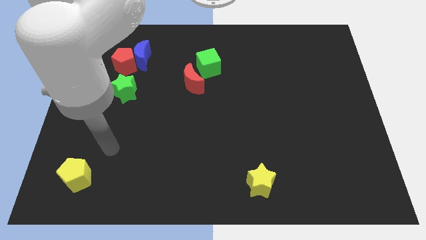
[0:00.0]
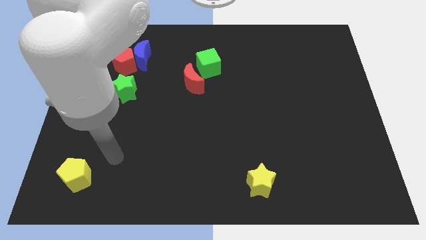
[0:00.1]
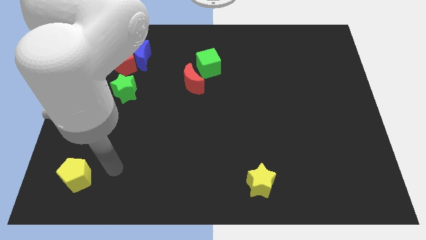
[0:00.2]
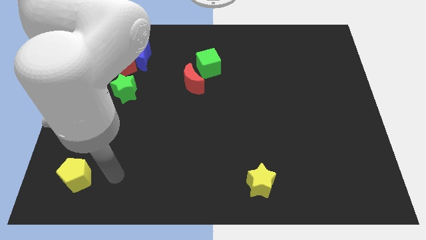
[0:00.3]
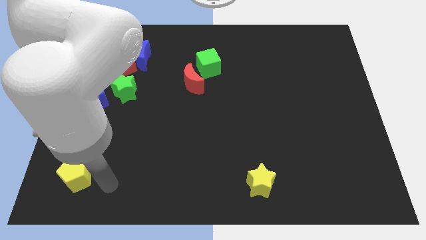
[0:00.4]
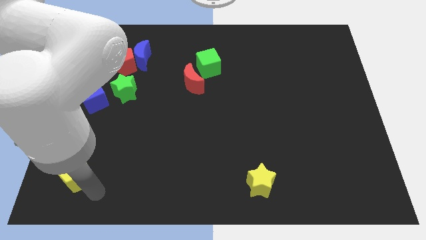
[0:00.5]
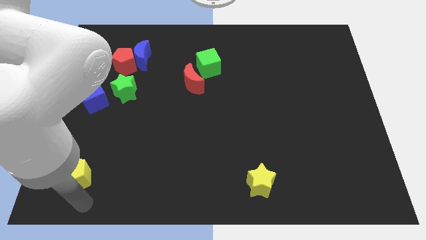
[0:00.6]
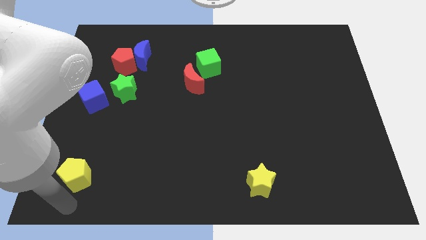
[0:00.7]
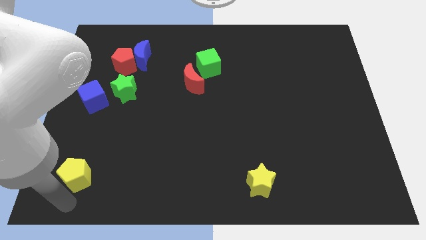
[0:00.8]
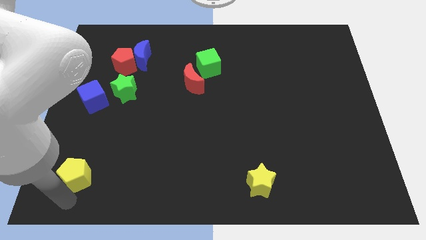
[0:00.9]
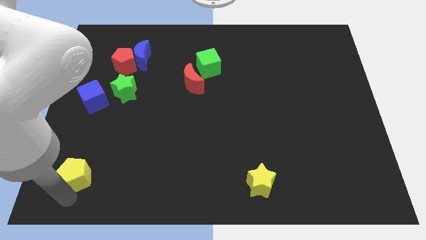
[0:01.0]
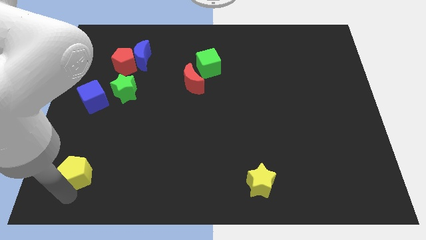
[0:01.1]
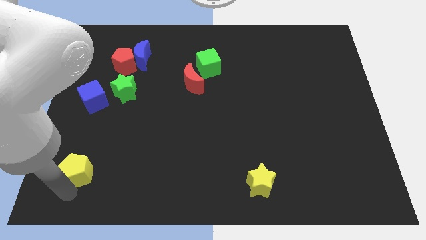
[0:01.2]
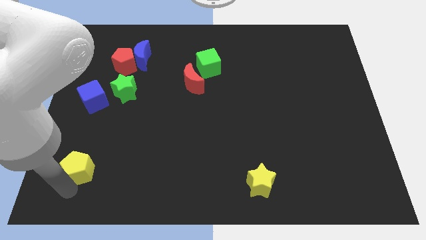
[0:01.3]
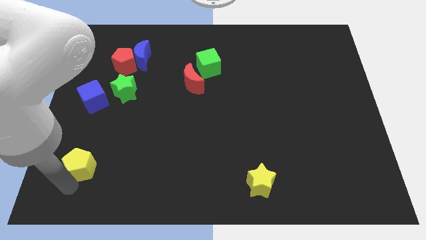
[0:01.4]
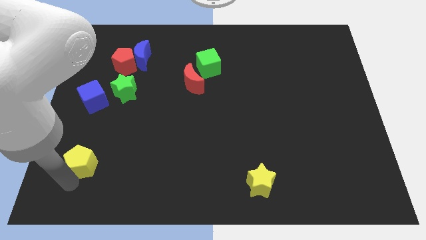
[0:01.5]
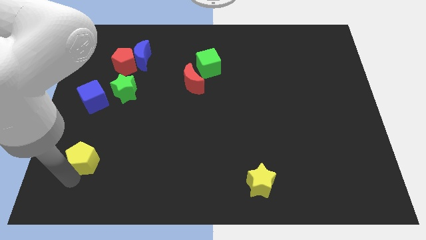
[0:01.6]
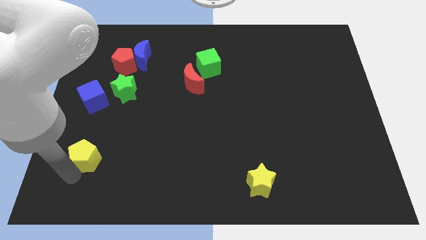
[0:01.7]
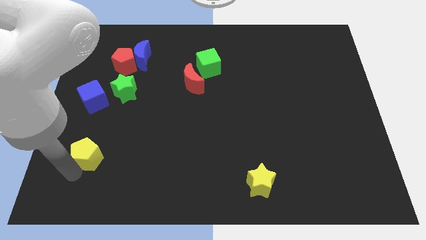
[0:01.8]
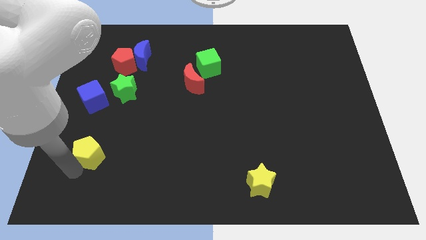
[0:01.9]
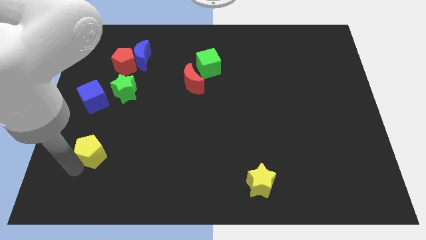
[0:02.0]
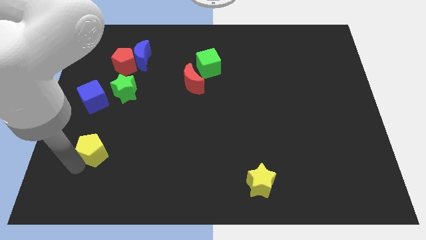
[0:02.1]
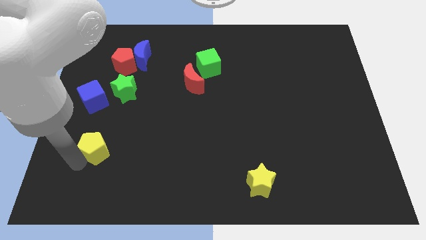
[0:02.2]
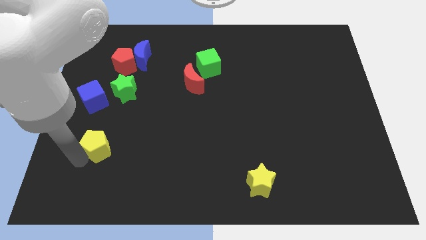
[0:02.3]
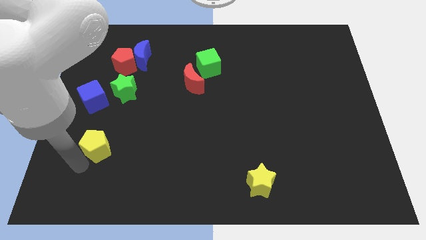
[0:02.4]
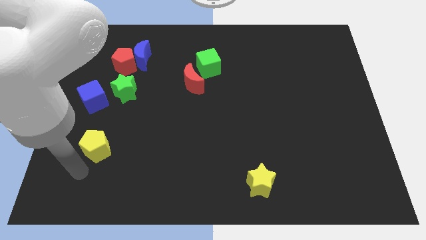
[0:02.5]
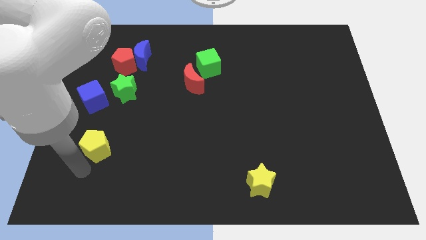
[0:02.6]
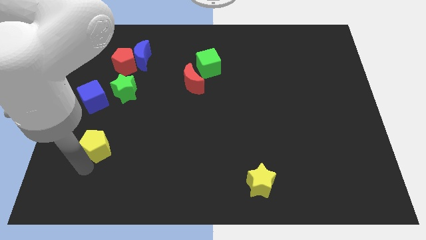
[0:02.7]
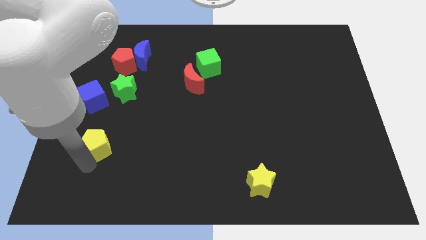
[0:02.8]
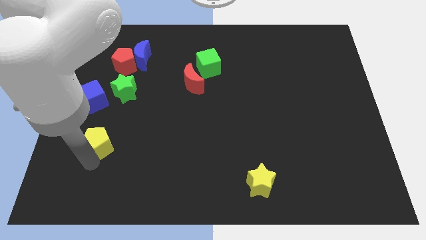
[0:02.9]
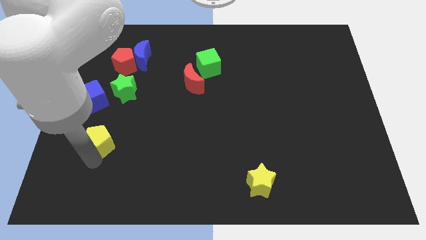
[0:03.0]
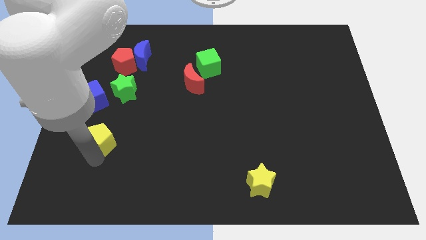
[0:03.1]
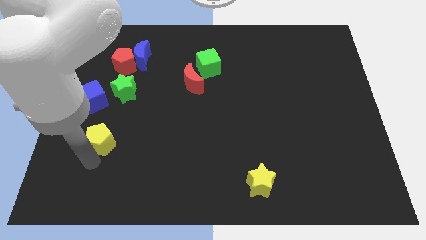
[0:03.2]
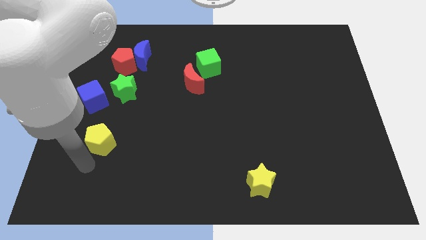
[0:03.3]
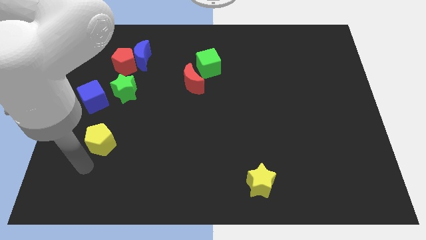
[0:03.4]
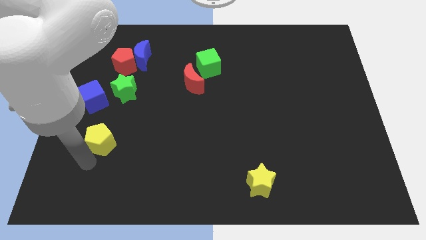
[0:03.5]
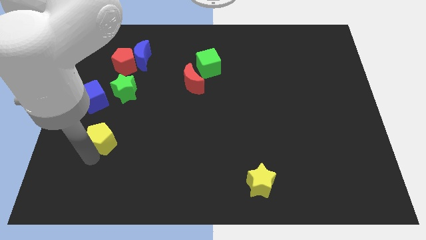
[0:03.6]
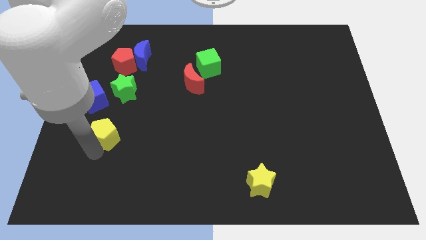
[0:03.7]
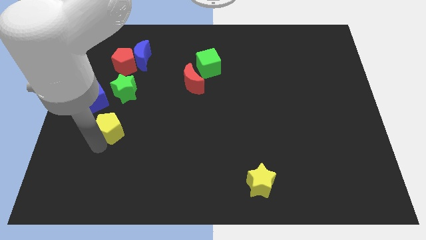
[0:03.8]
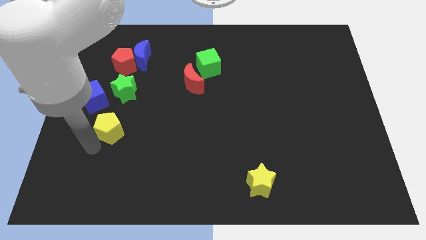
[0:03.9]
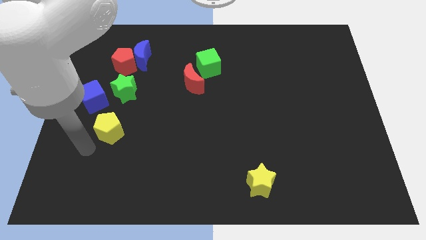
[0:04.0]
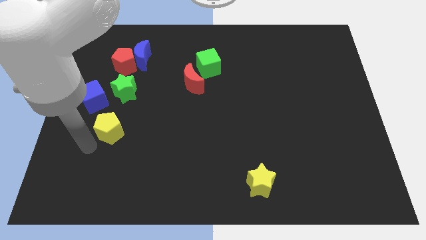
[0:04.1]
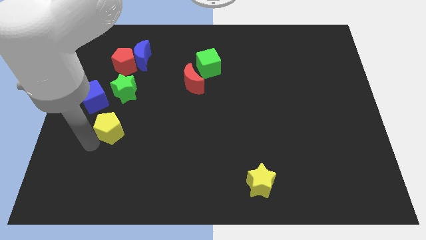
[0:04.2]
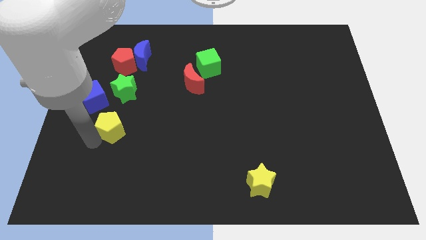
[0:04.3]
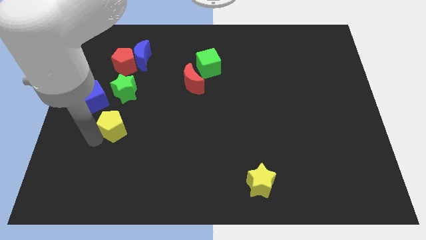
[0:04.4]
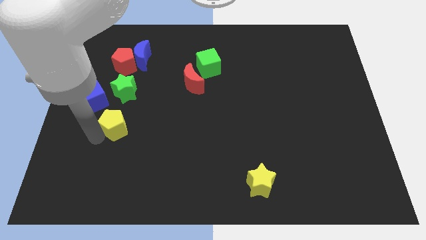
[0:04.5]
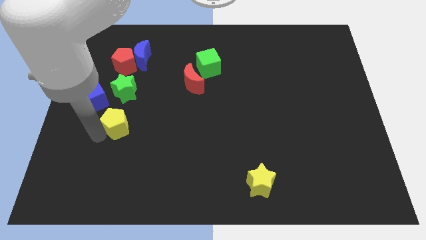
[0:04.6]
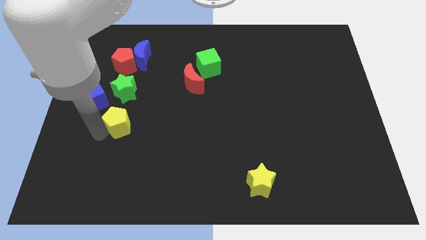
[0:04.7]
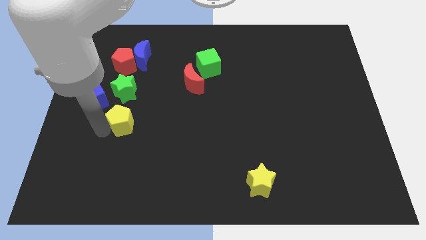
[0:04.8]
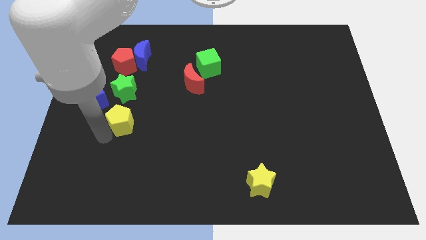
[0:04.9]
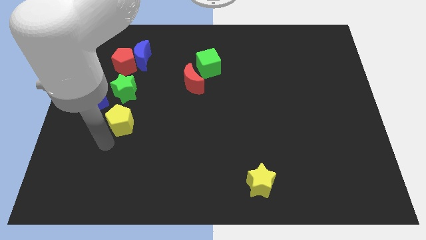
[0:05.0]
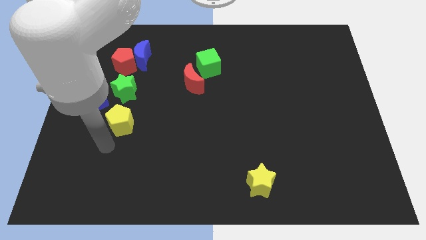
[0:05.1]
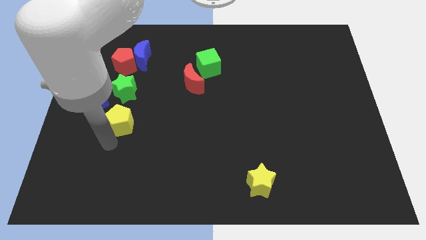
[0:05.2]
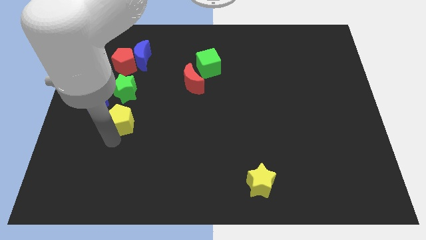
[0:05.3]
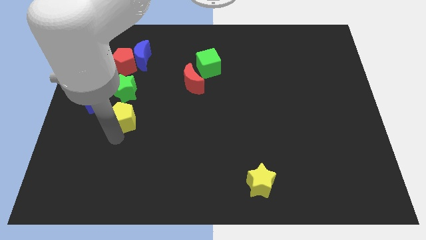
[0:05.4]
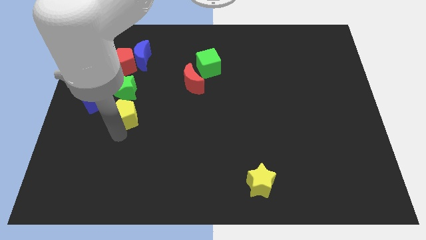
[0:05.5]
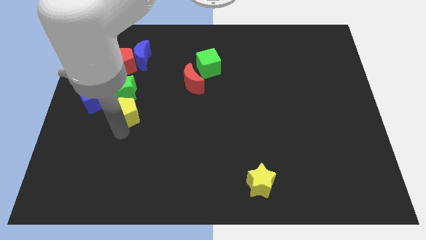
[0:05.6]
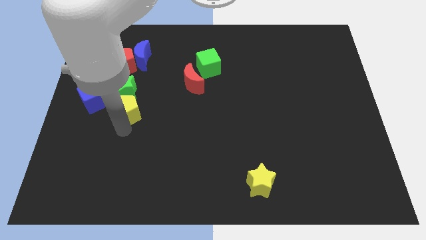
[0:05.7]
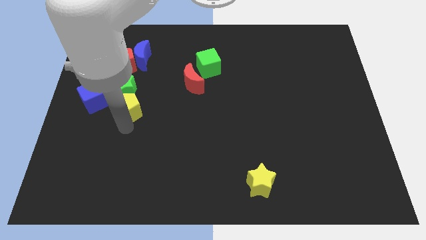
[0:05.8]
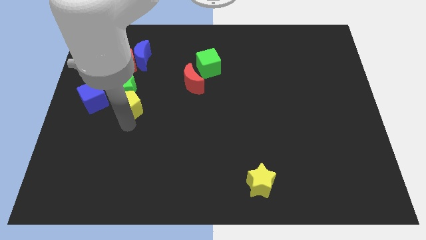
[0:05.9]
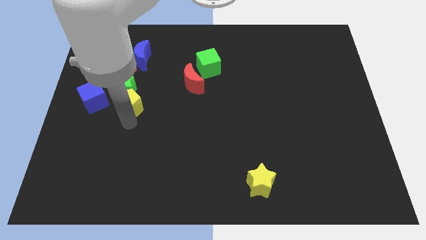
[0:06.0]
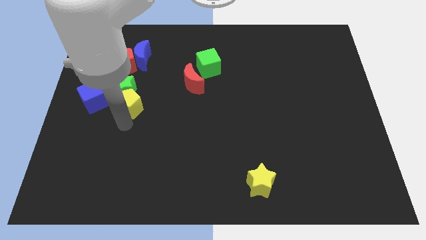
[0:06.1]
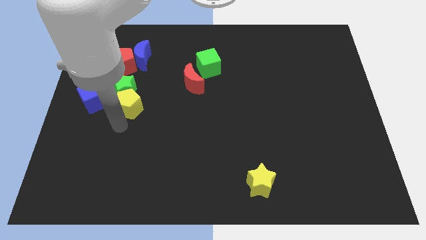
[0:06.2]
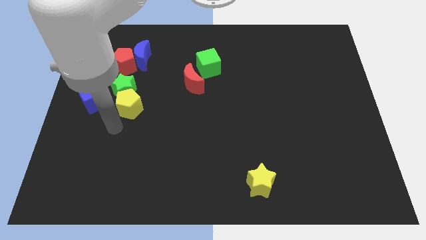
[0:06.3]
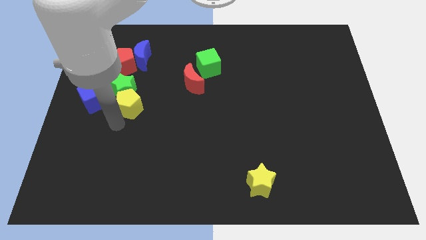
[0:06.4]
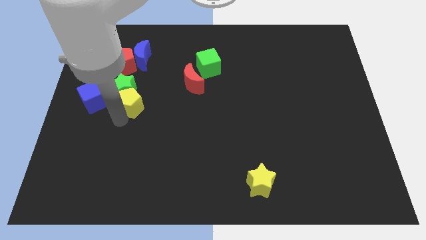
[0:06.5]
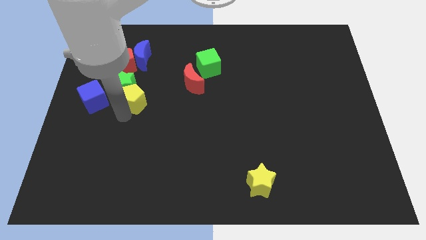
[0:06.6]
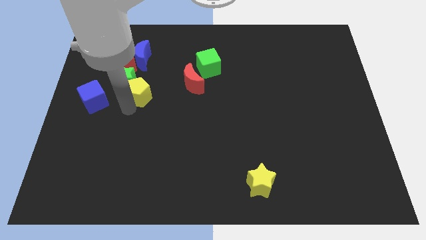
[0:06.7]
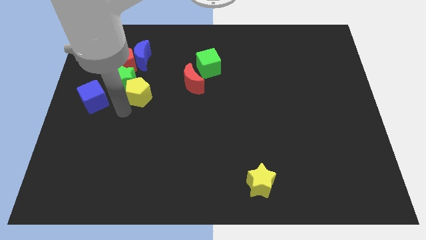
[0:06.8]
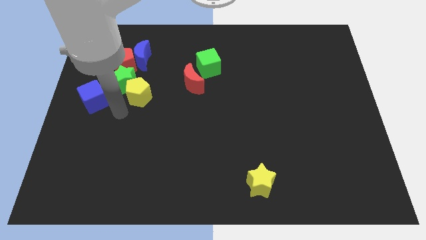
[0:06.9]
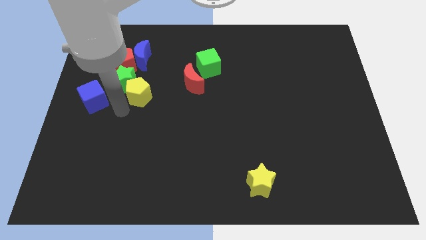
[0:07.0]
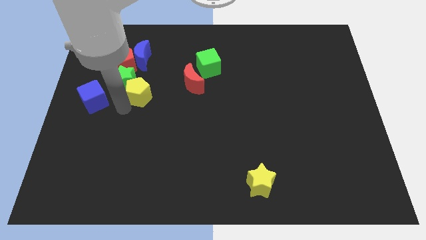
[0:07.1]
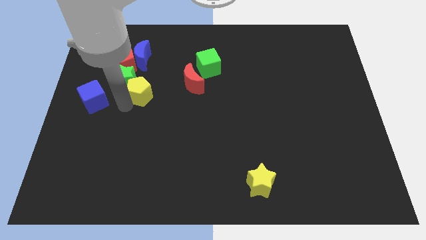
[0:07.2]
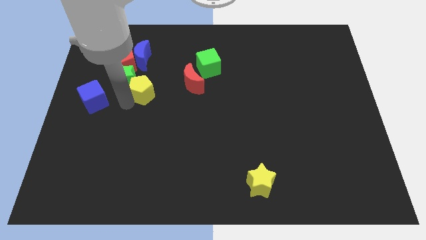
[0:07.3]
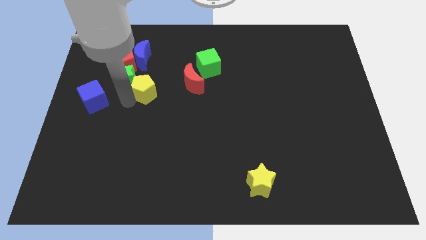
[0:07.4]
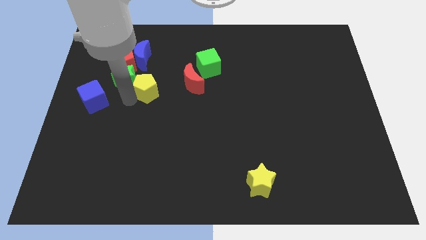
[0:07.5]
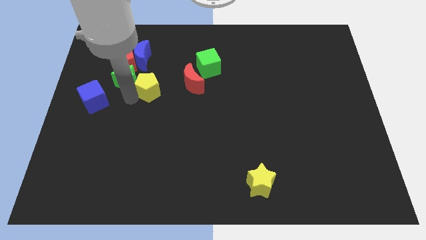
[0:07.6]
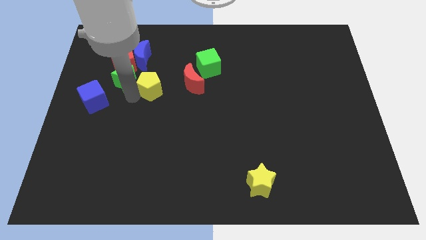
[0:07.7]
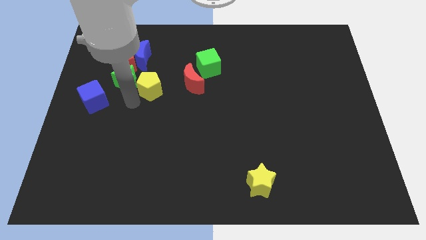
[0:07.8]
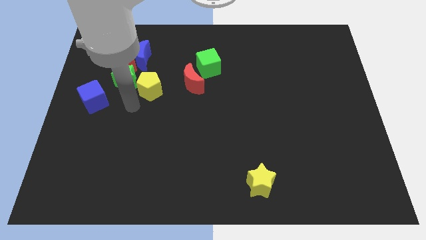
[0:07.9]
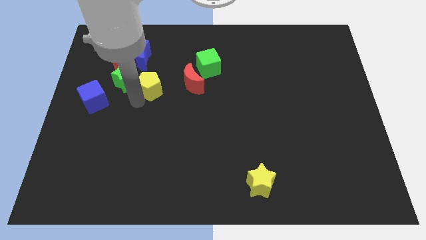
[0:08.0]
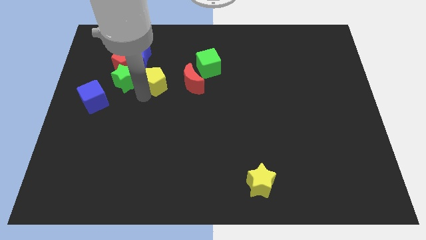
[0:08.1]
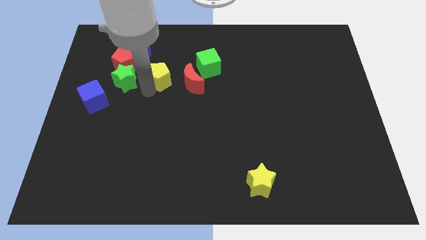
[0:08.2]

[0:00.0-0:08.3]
slide the yellow pentagon to the top left side of the red moon
